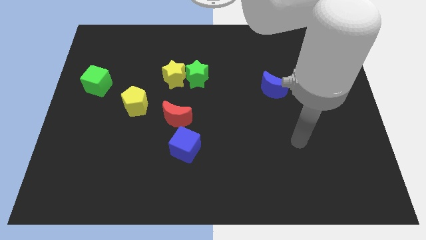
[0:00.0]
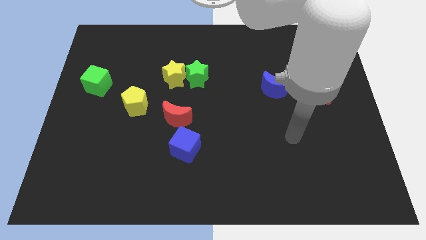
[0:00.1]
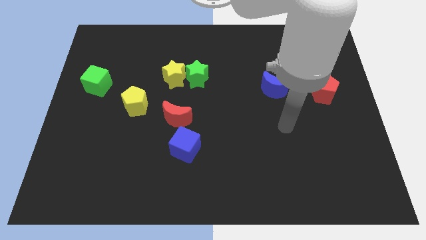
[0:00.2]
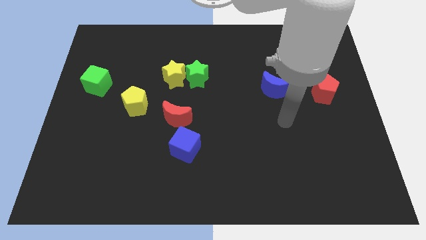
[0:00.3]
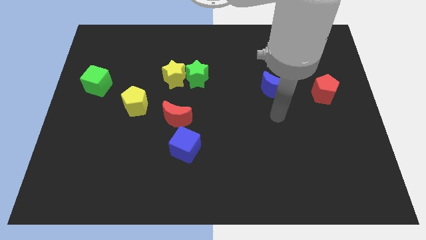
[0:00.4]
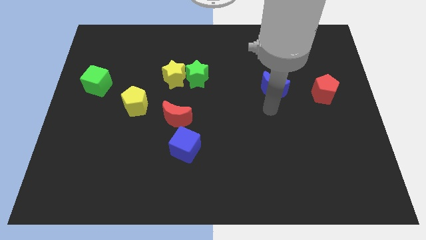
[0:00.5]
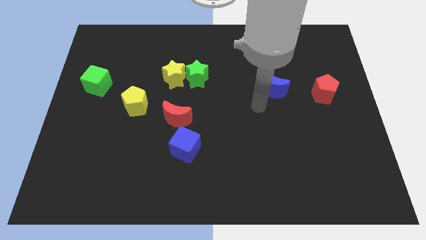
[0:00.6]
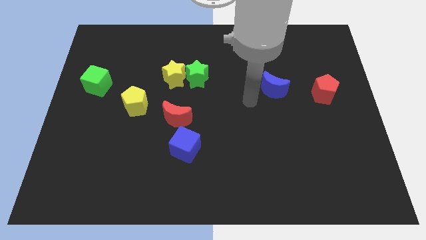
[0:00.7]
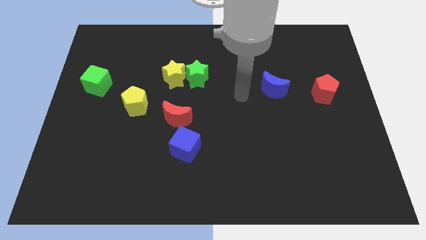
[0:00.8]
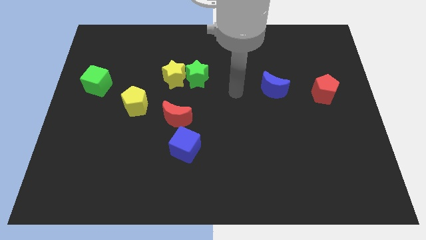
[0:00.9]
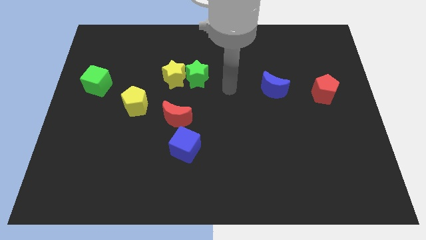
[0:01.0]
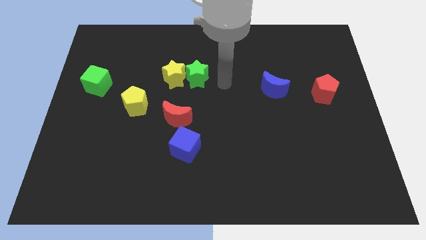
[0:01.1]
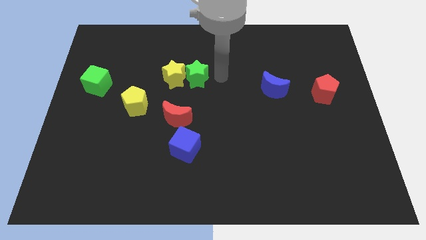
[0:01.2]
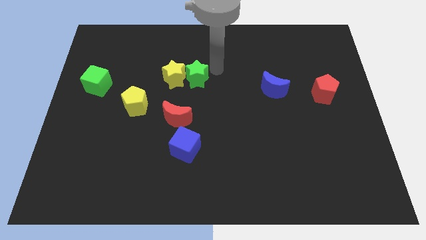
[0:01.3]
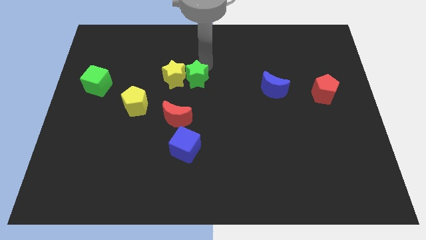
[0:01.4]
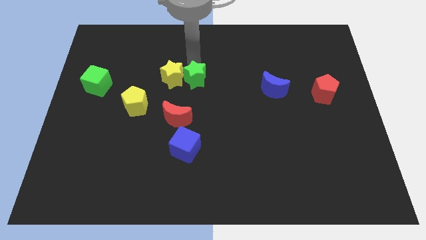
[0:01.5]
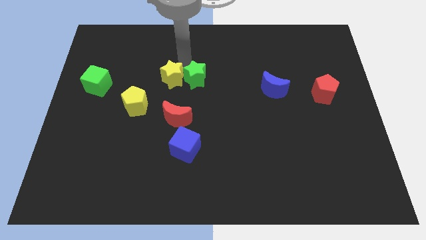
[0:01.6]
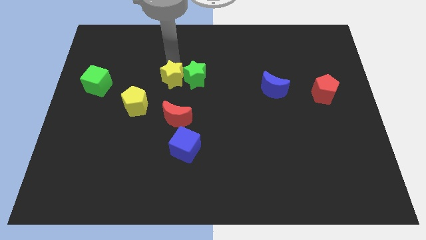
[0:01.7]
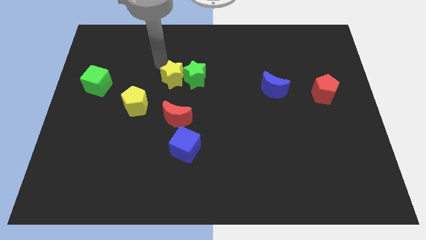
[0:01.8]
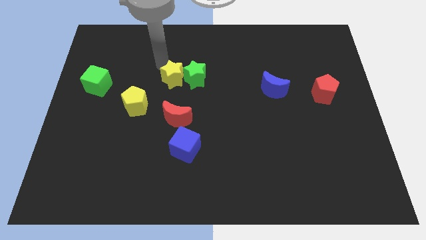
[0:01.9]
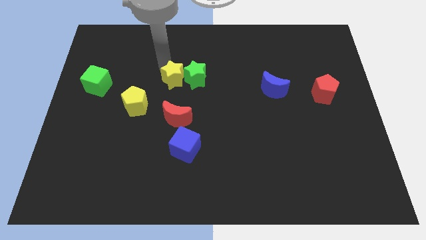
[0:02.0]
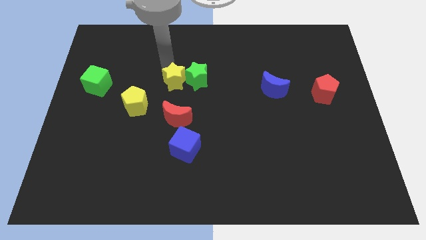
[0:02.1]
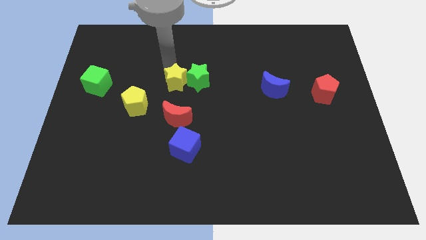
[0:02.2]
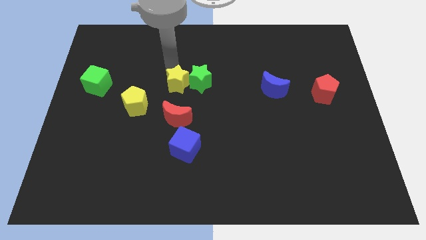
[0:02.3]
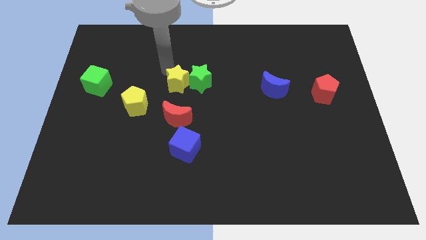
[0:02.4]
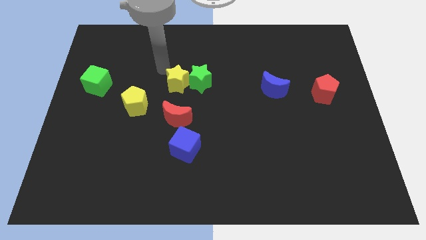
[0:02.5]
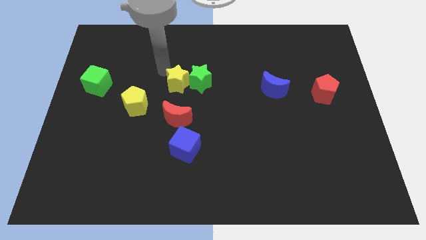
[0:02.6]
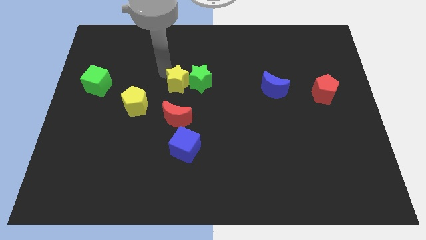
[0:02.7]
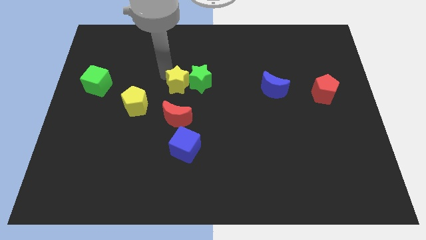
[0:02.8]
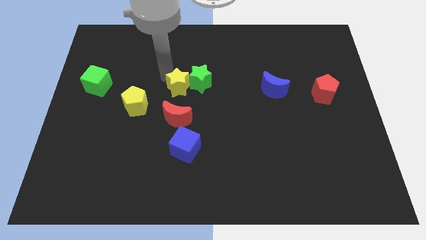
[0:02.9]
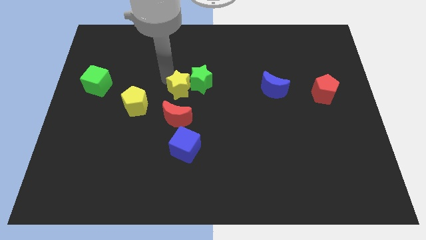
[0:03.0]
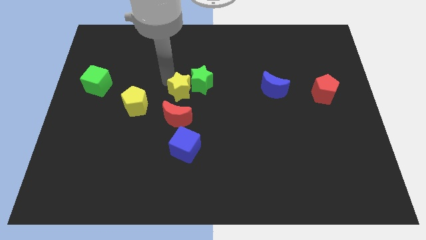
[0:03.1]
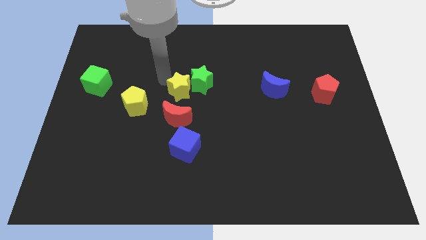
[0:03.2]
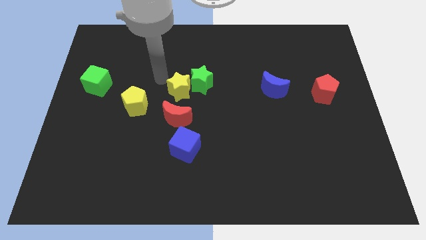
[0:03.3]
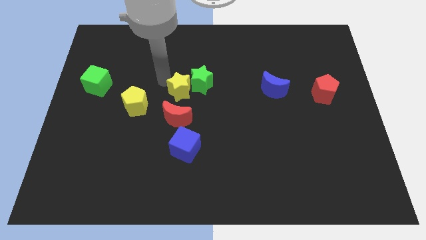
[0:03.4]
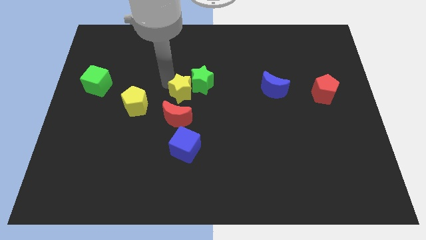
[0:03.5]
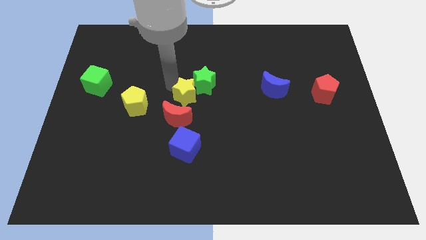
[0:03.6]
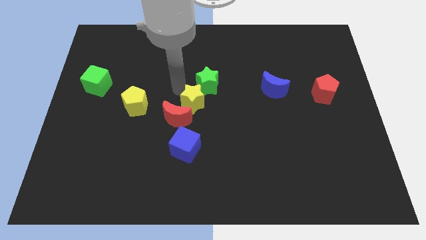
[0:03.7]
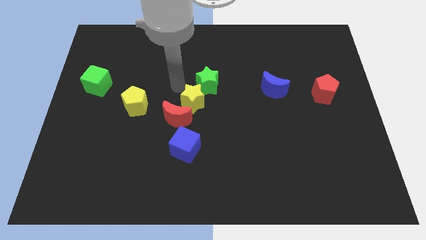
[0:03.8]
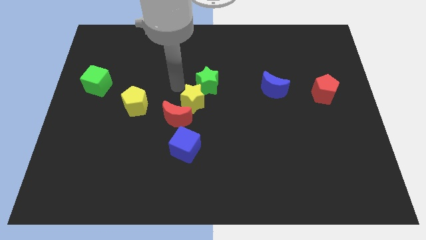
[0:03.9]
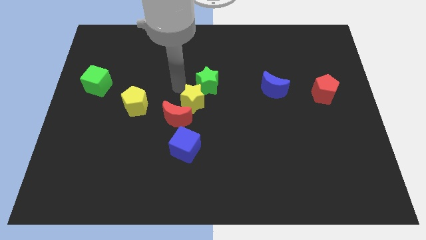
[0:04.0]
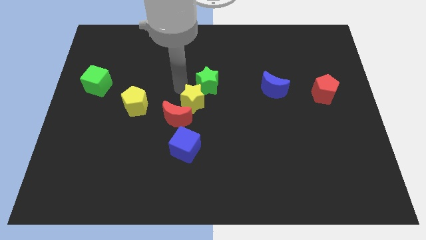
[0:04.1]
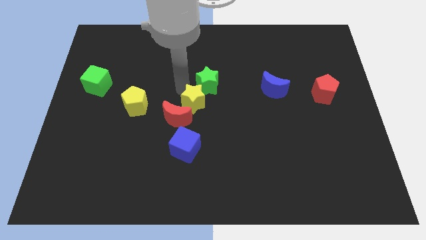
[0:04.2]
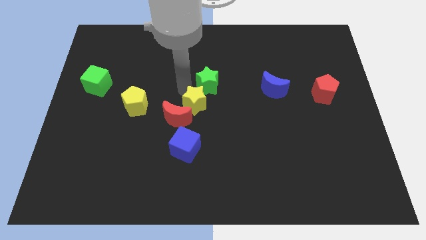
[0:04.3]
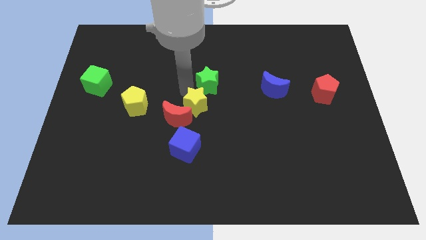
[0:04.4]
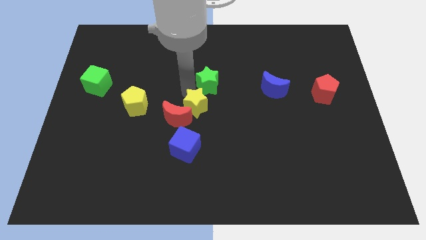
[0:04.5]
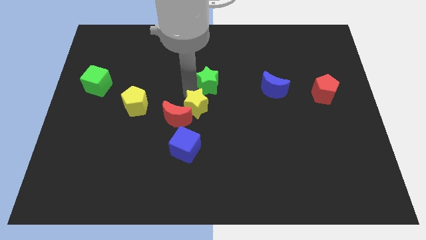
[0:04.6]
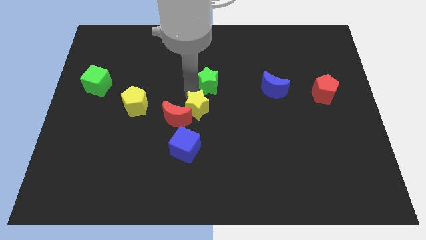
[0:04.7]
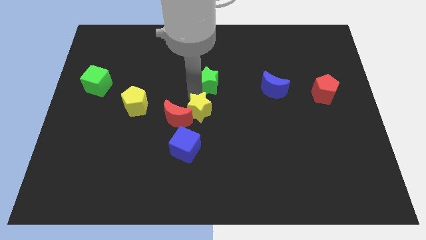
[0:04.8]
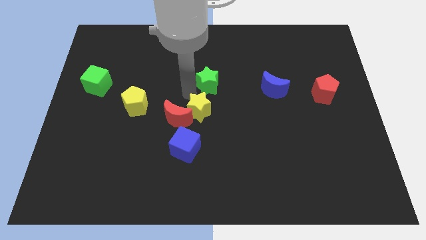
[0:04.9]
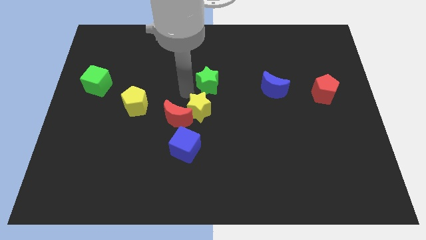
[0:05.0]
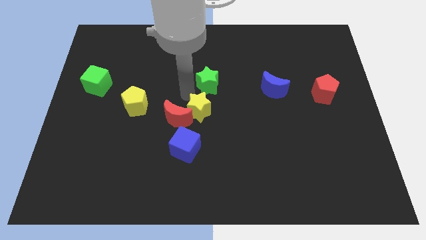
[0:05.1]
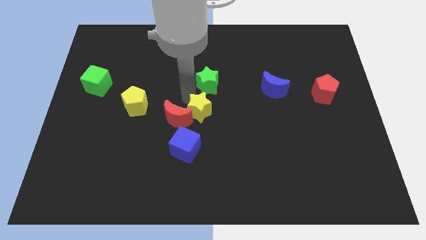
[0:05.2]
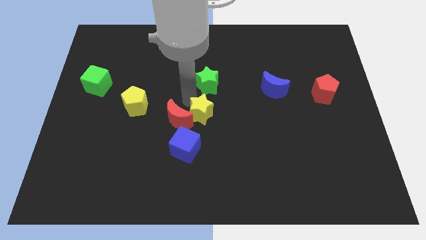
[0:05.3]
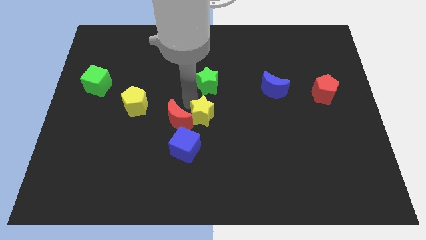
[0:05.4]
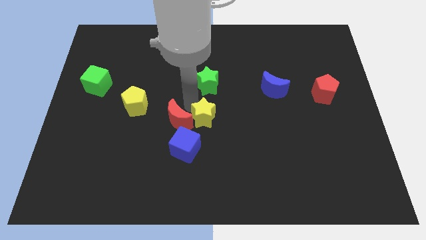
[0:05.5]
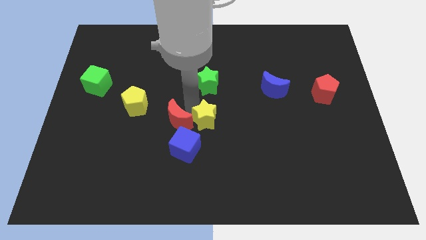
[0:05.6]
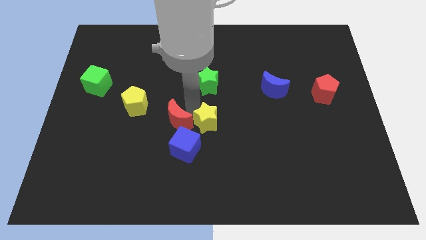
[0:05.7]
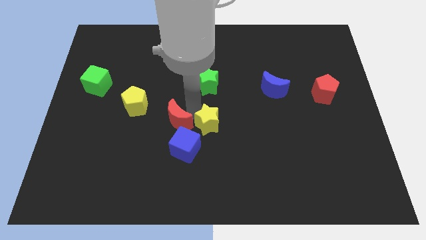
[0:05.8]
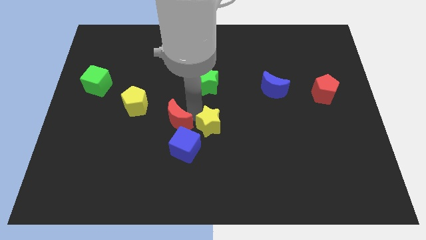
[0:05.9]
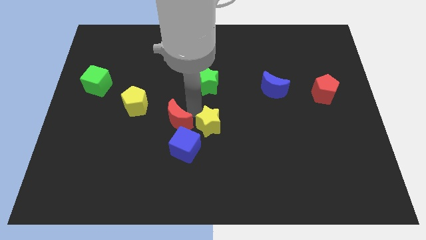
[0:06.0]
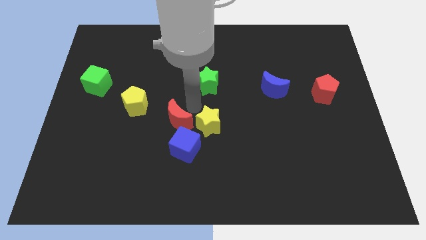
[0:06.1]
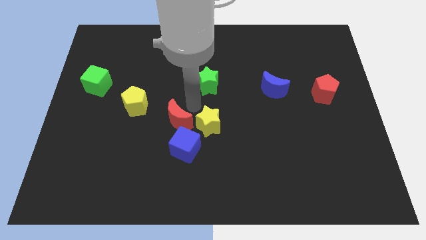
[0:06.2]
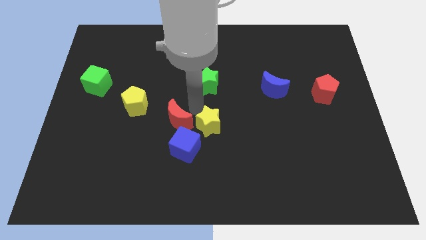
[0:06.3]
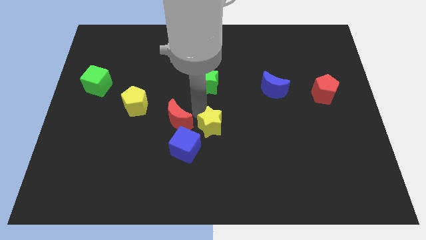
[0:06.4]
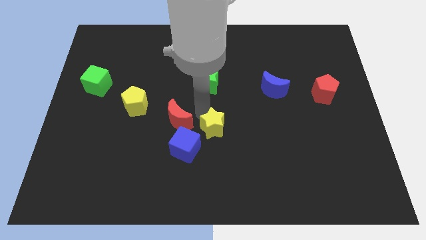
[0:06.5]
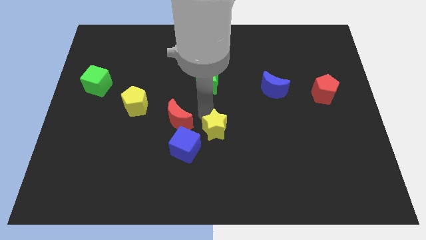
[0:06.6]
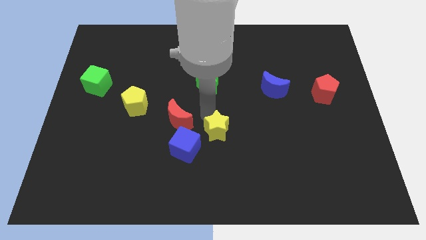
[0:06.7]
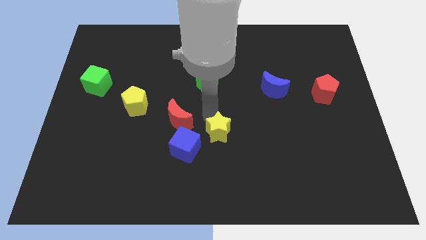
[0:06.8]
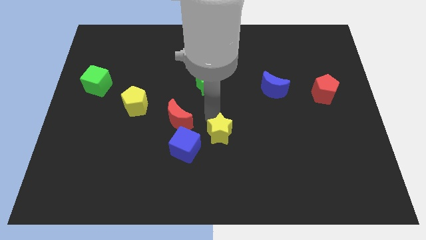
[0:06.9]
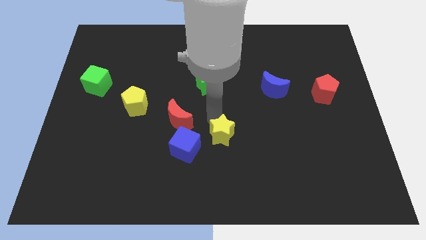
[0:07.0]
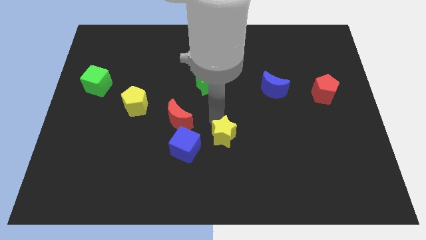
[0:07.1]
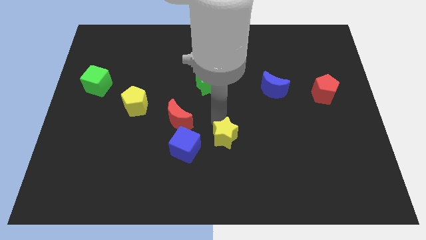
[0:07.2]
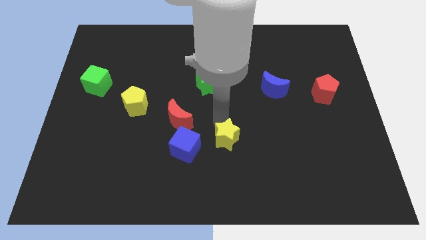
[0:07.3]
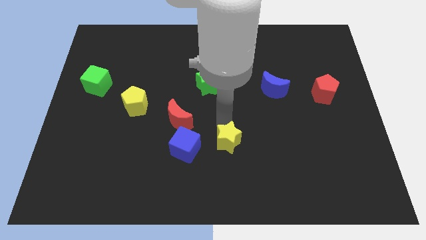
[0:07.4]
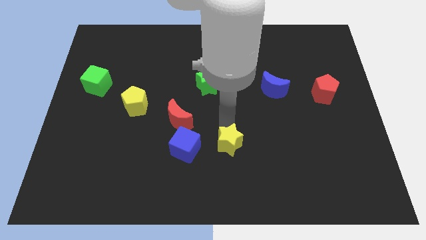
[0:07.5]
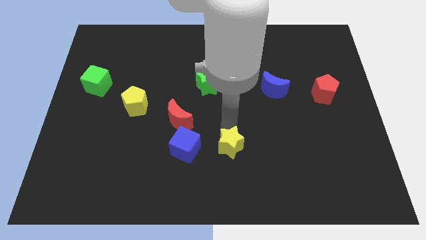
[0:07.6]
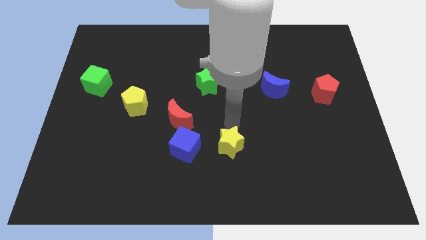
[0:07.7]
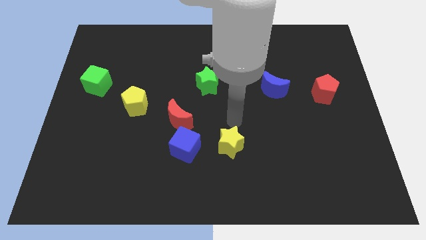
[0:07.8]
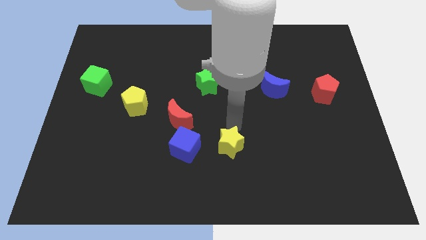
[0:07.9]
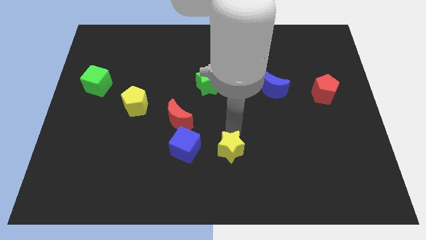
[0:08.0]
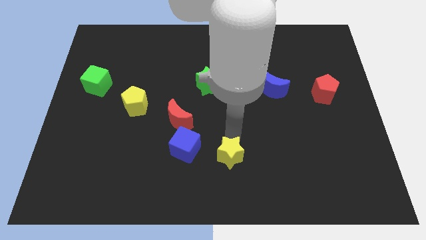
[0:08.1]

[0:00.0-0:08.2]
push the yellow star to the bottom side
